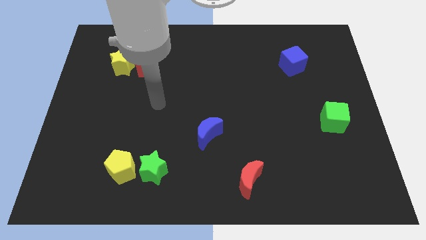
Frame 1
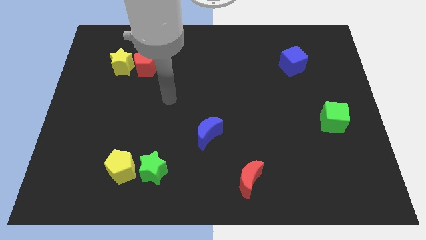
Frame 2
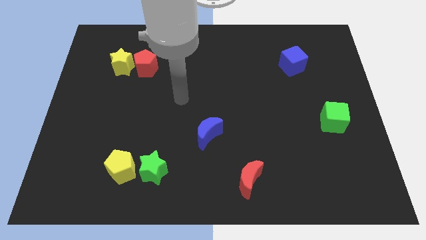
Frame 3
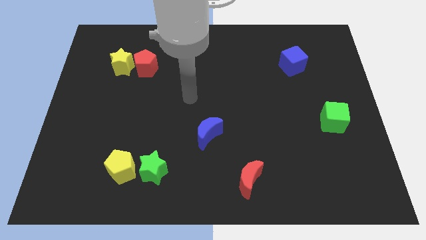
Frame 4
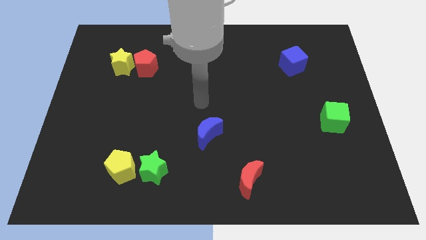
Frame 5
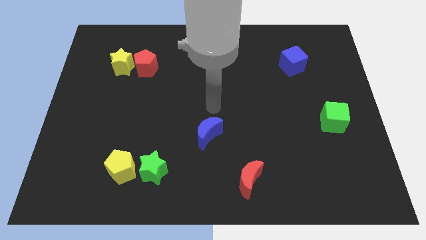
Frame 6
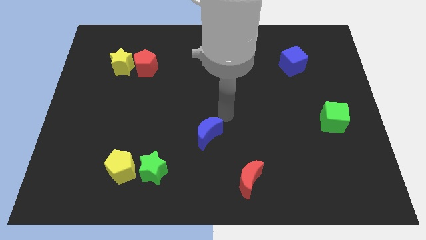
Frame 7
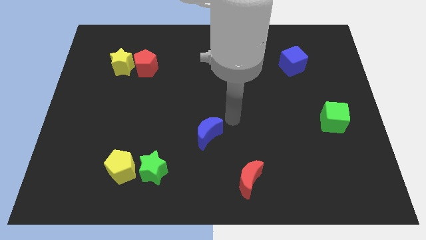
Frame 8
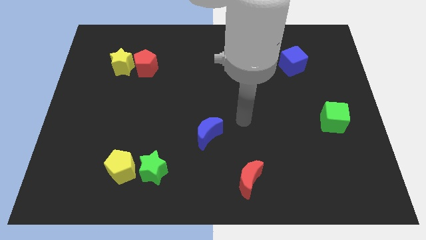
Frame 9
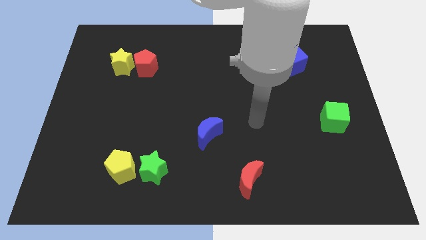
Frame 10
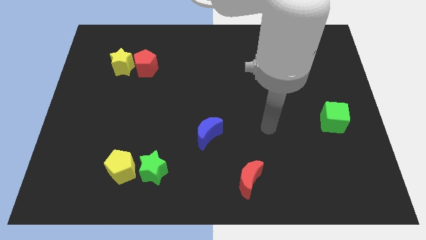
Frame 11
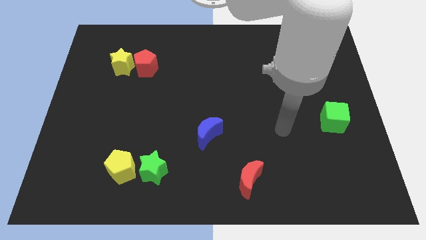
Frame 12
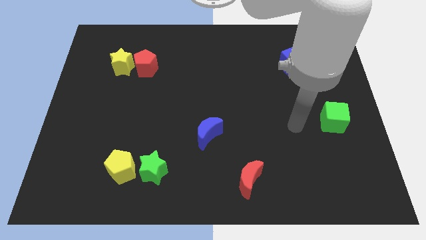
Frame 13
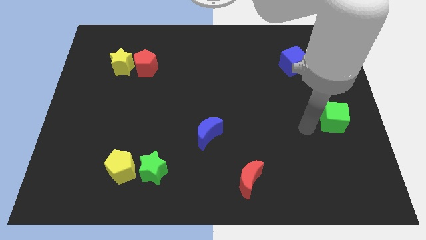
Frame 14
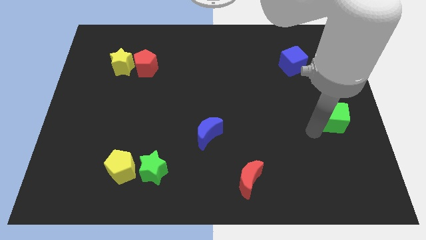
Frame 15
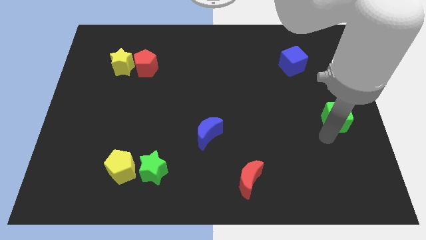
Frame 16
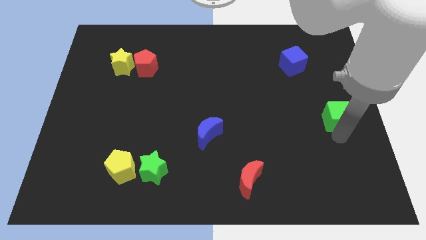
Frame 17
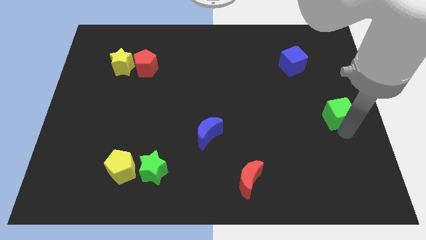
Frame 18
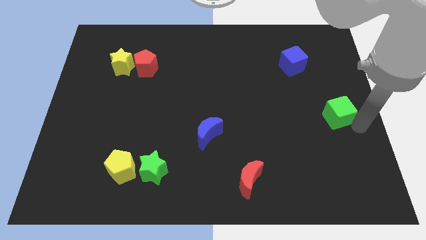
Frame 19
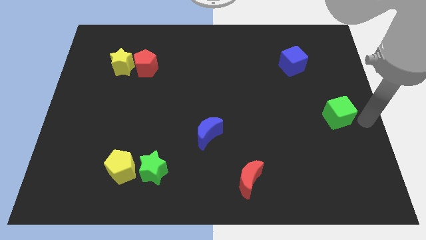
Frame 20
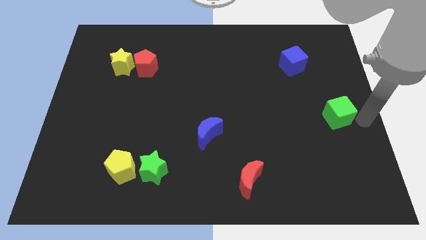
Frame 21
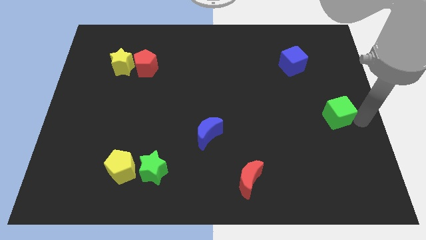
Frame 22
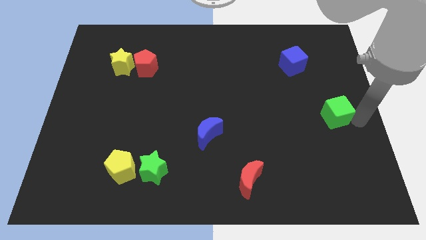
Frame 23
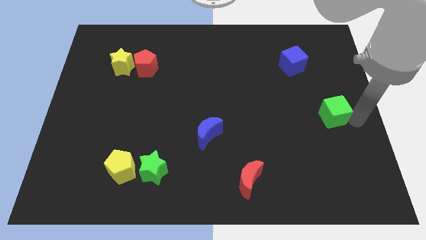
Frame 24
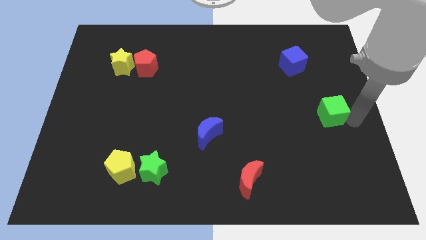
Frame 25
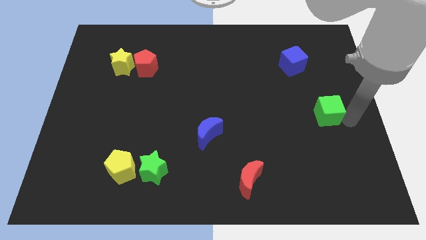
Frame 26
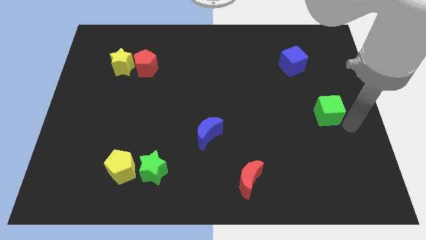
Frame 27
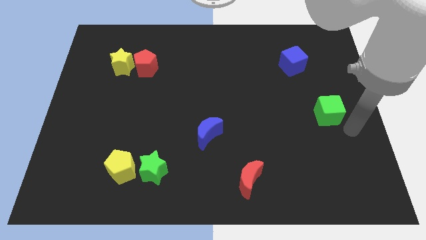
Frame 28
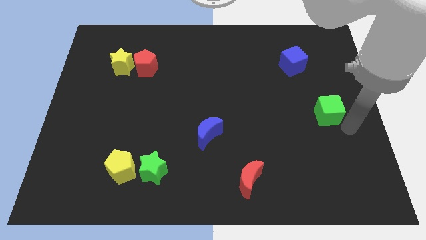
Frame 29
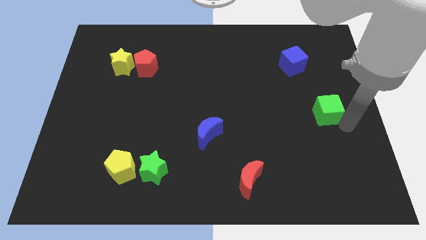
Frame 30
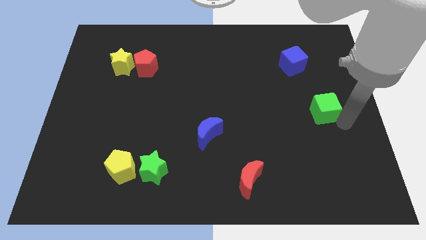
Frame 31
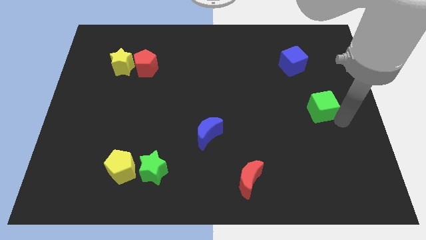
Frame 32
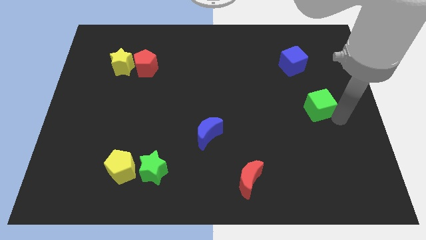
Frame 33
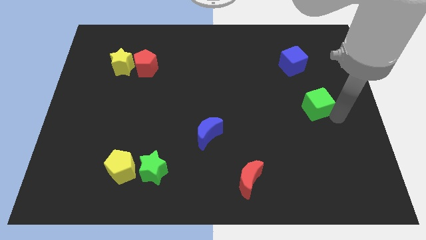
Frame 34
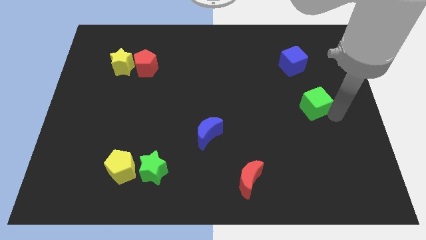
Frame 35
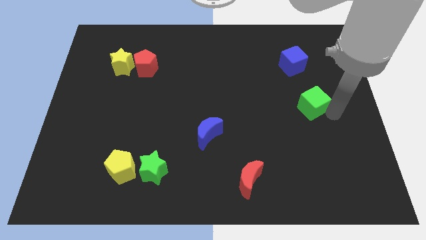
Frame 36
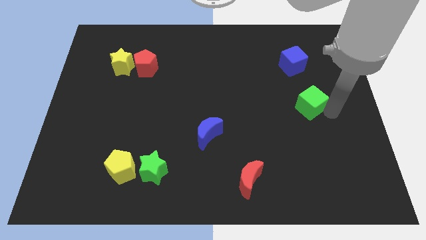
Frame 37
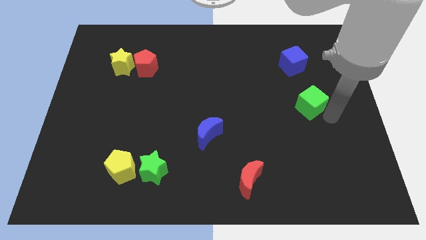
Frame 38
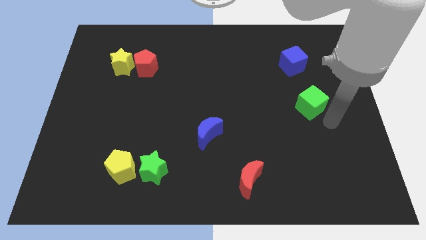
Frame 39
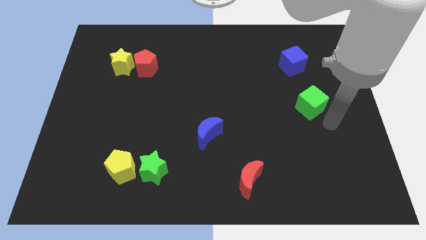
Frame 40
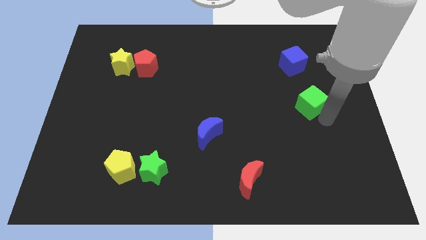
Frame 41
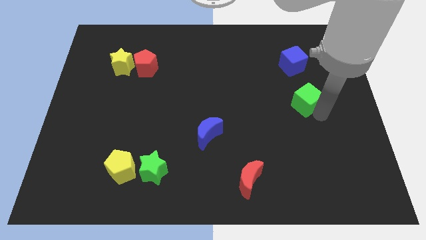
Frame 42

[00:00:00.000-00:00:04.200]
slightly push the green cube diagonally up and to the left

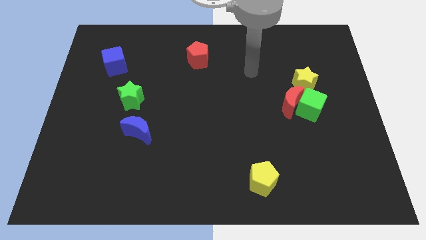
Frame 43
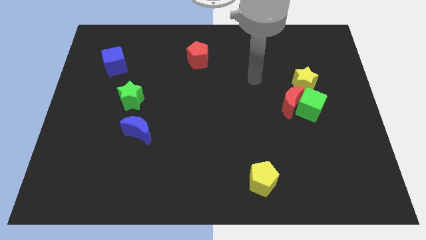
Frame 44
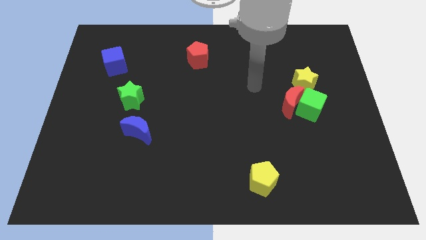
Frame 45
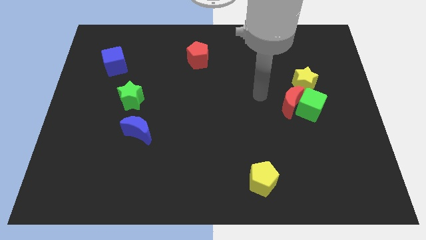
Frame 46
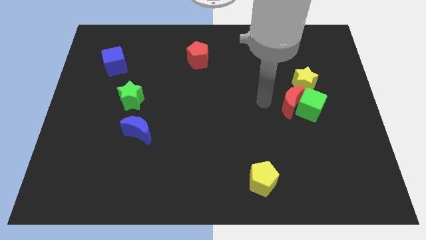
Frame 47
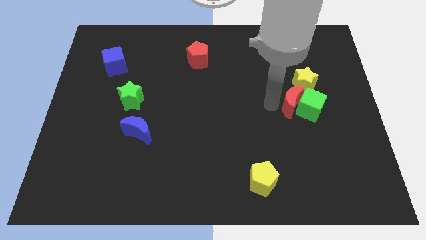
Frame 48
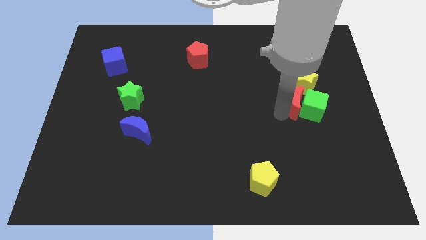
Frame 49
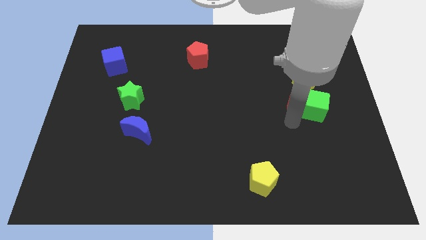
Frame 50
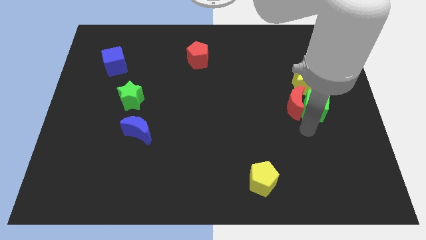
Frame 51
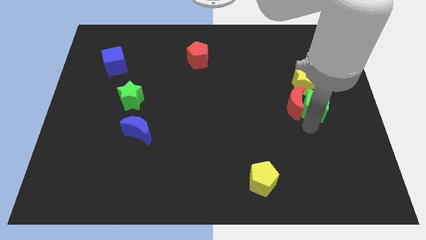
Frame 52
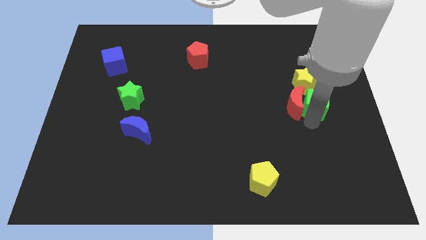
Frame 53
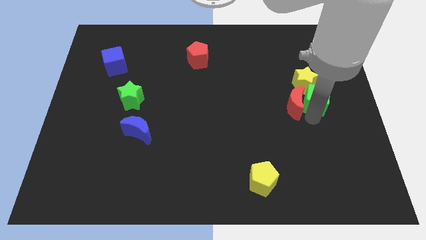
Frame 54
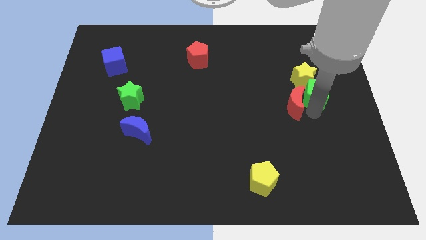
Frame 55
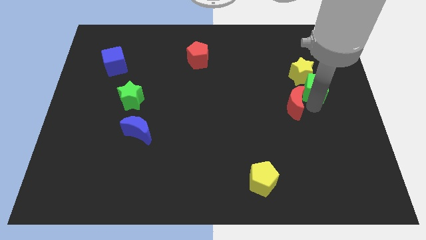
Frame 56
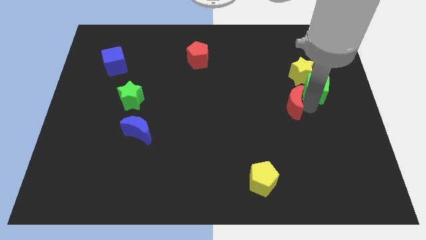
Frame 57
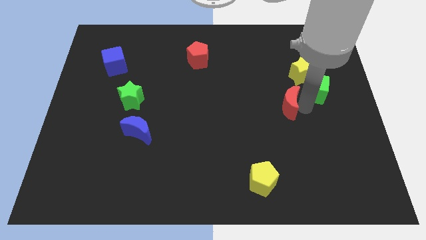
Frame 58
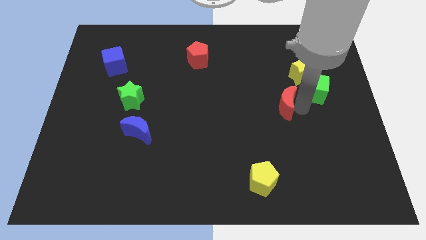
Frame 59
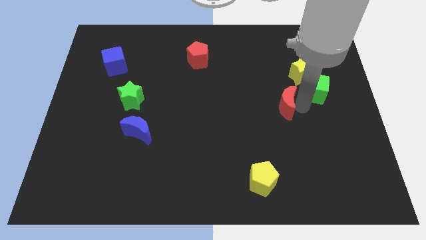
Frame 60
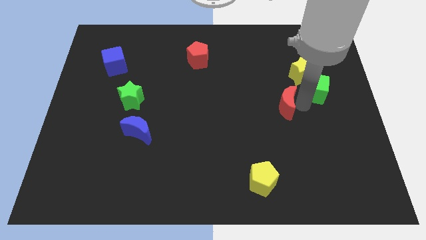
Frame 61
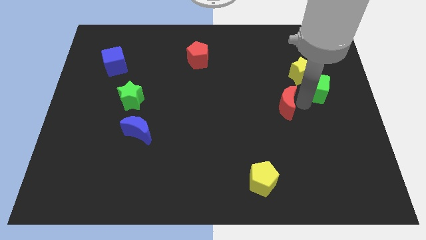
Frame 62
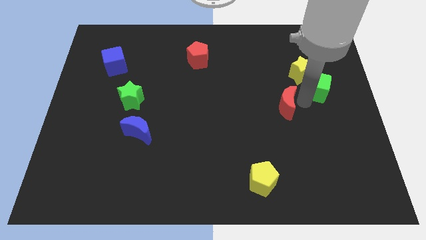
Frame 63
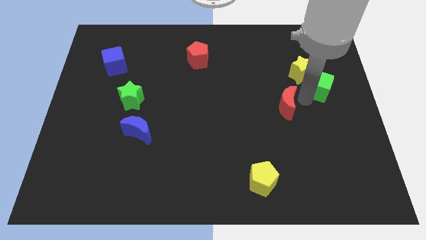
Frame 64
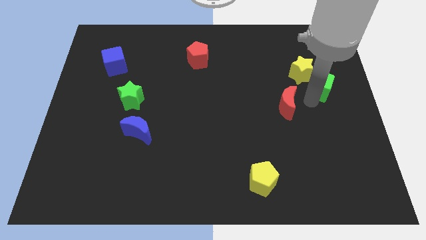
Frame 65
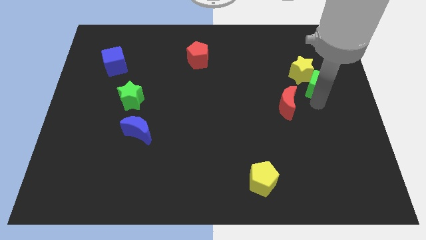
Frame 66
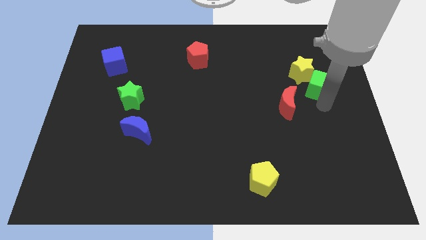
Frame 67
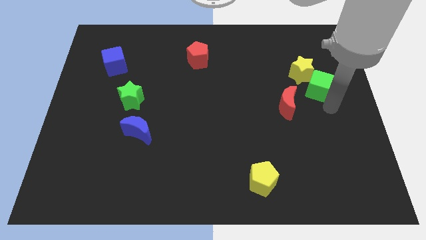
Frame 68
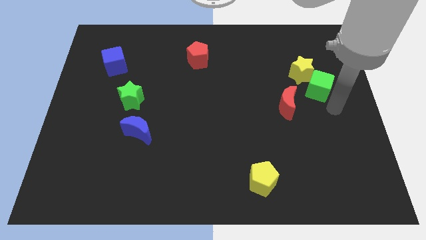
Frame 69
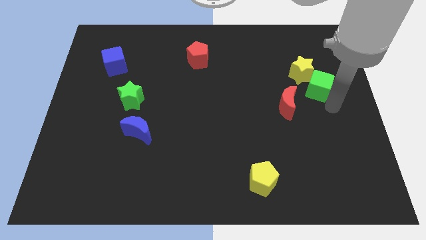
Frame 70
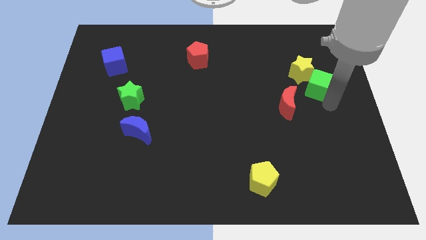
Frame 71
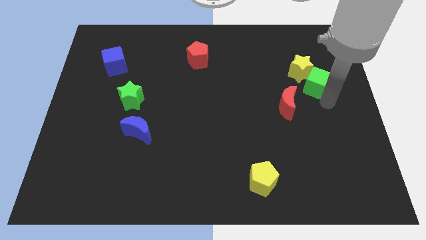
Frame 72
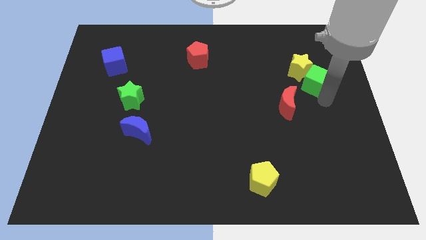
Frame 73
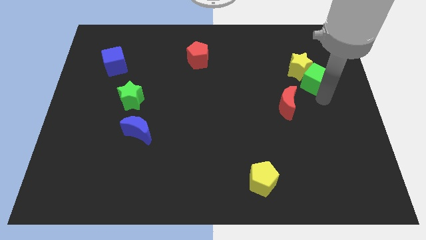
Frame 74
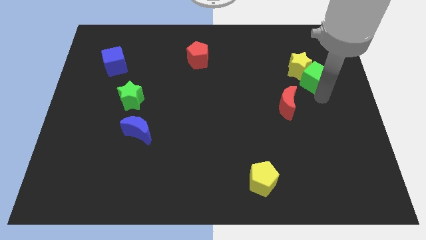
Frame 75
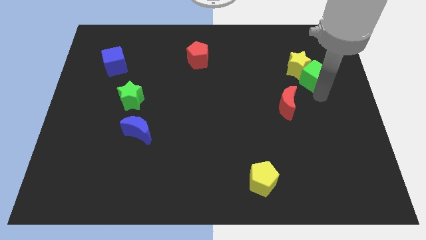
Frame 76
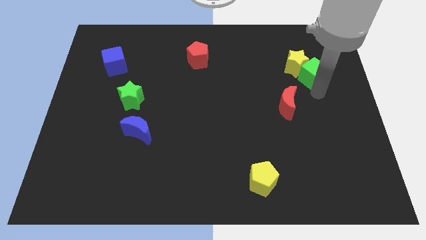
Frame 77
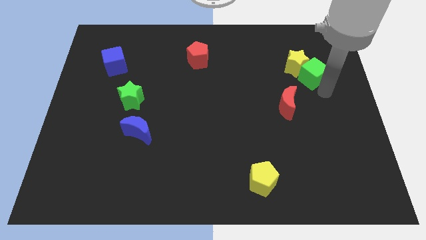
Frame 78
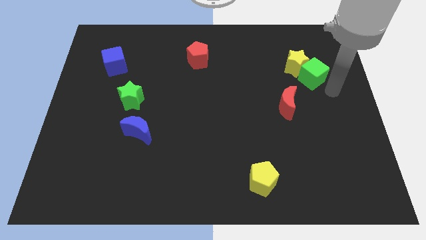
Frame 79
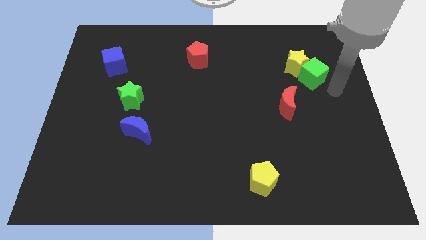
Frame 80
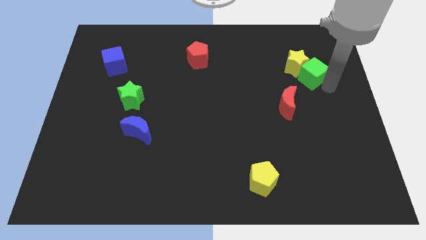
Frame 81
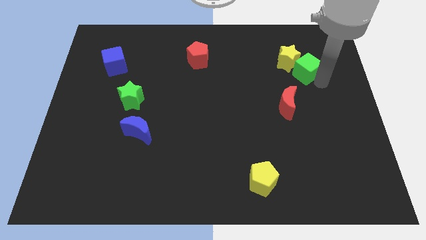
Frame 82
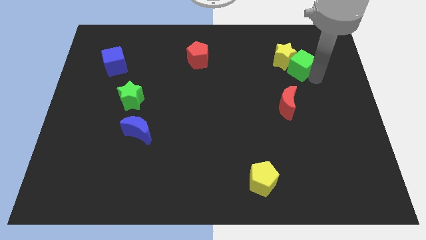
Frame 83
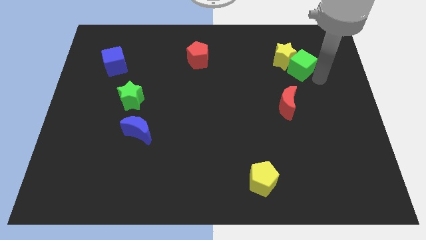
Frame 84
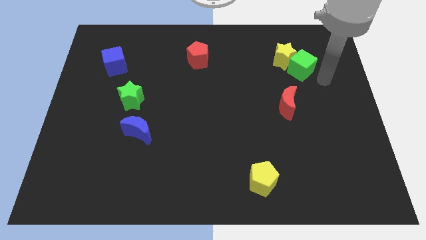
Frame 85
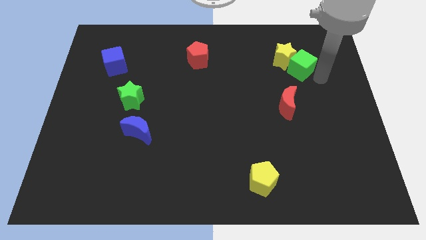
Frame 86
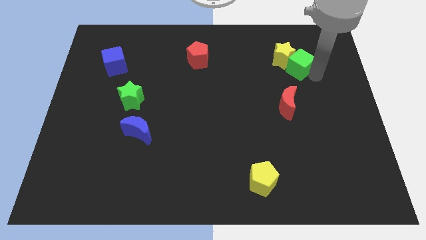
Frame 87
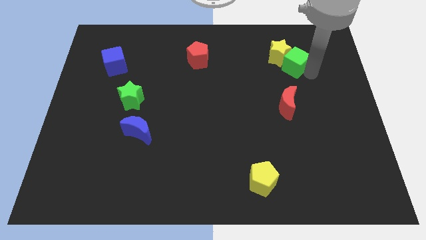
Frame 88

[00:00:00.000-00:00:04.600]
push the green cube a little bit diagonally up and to the left
